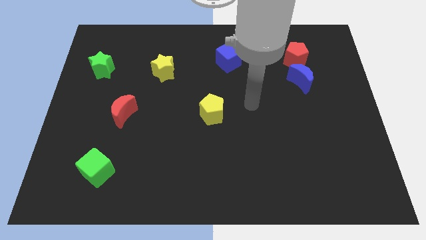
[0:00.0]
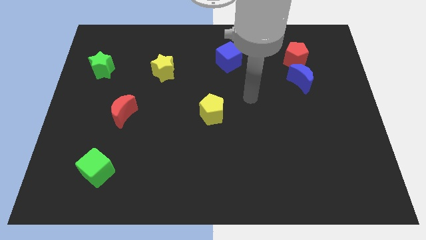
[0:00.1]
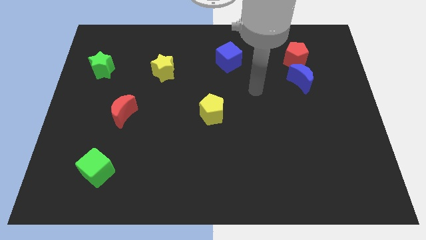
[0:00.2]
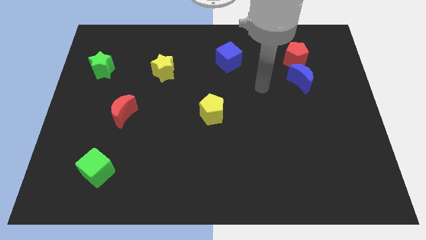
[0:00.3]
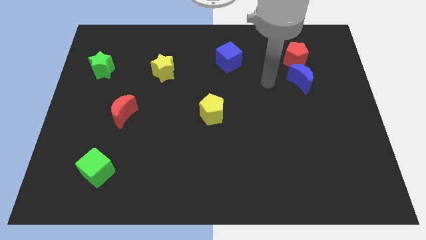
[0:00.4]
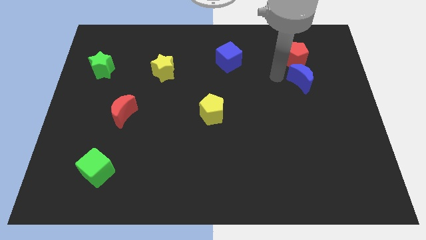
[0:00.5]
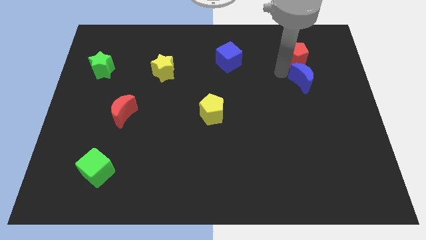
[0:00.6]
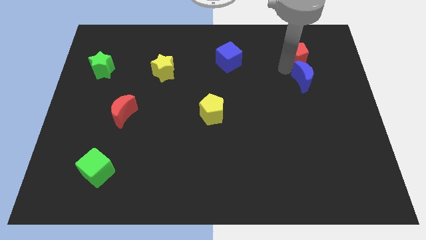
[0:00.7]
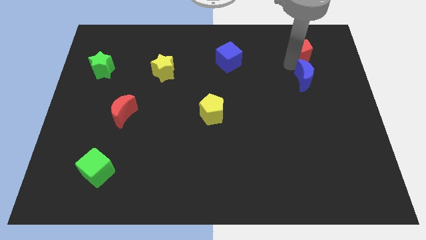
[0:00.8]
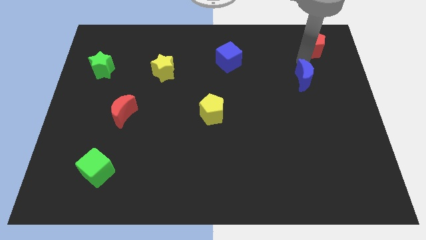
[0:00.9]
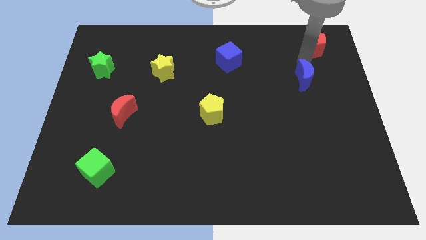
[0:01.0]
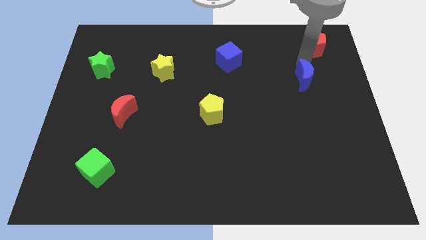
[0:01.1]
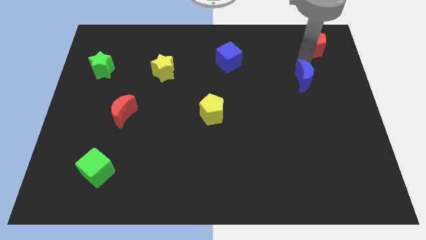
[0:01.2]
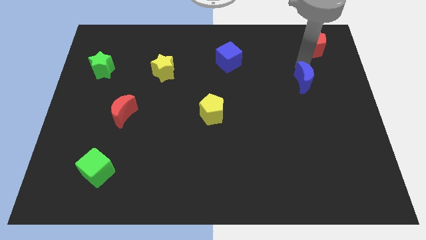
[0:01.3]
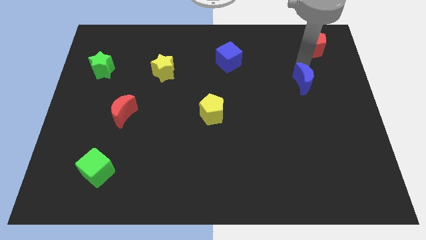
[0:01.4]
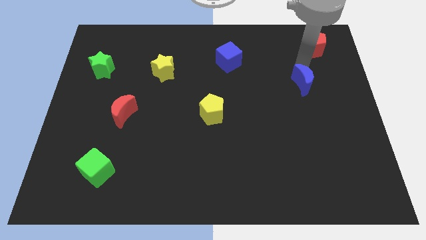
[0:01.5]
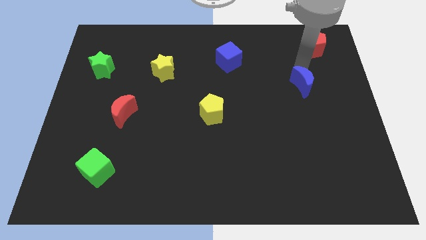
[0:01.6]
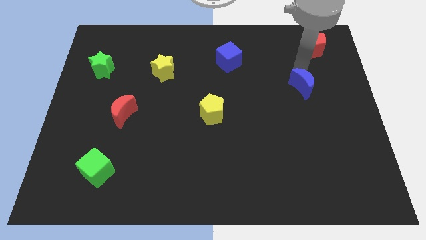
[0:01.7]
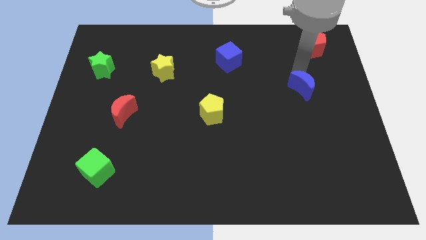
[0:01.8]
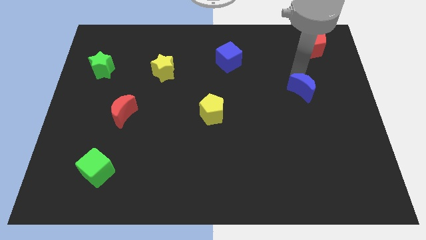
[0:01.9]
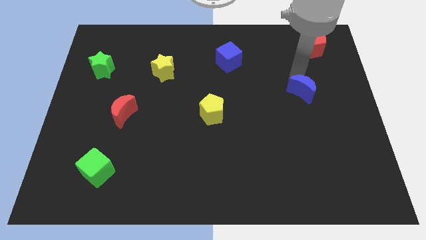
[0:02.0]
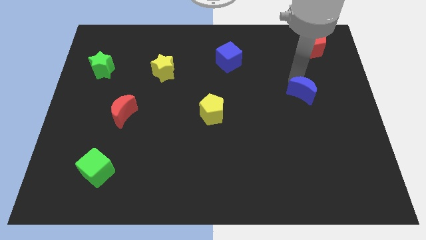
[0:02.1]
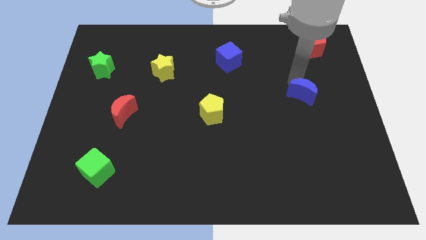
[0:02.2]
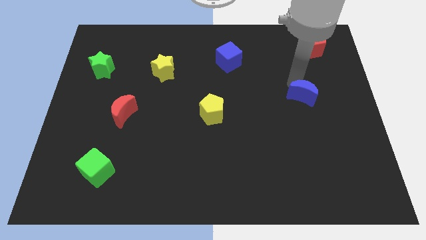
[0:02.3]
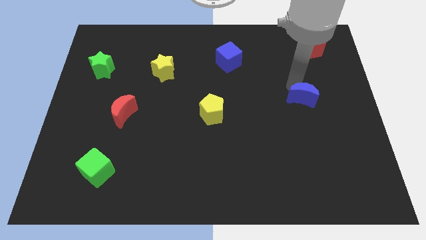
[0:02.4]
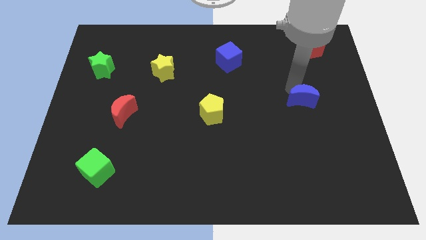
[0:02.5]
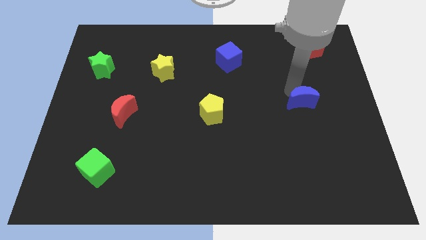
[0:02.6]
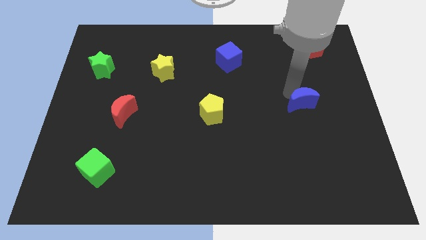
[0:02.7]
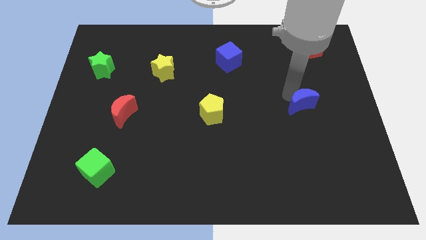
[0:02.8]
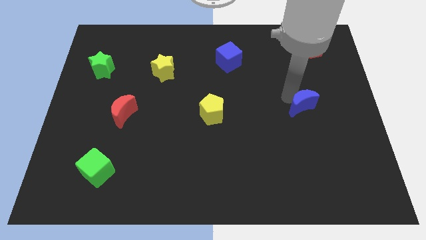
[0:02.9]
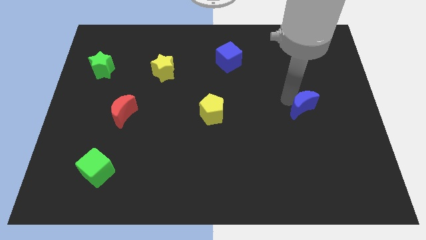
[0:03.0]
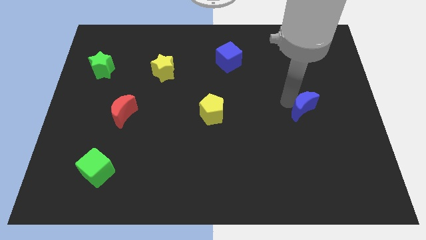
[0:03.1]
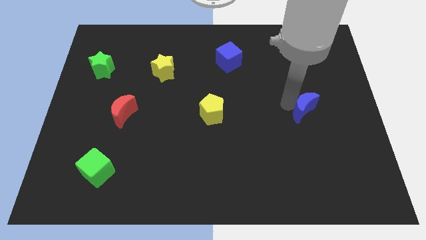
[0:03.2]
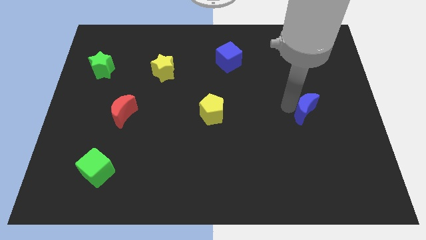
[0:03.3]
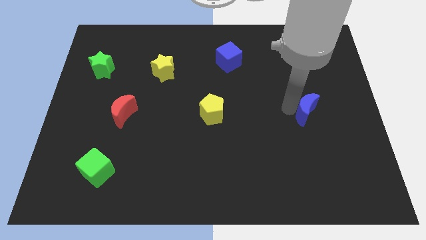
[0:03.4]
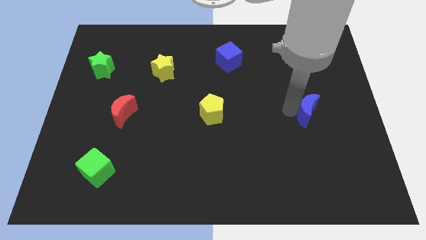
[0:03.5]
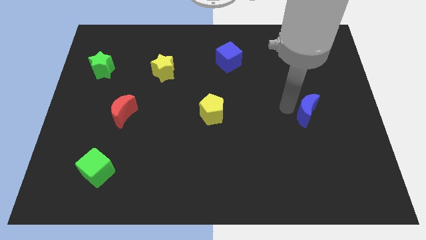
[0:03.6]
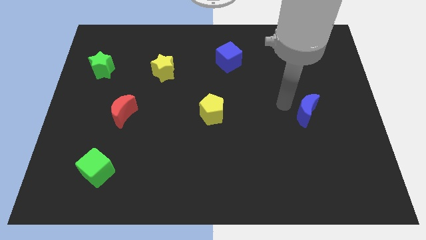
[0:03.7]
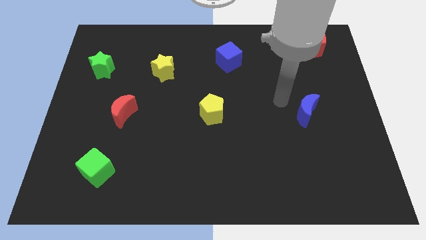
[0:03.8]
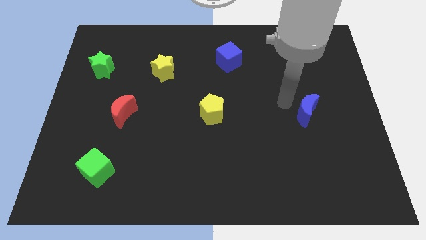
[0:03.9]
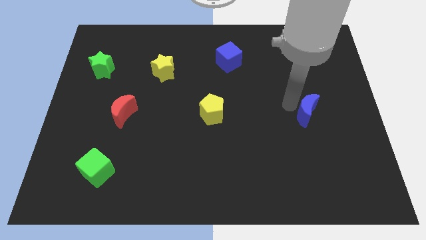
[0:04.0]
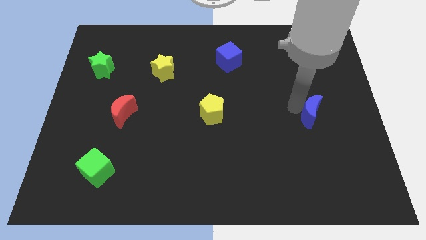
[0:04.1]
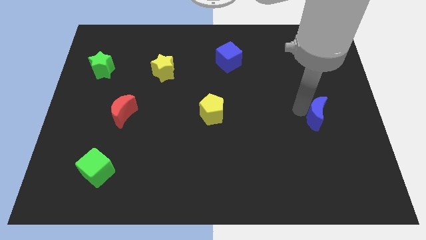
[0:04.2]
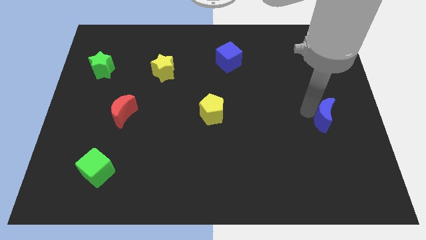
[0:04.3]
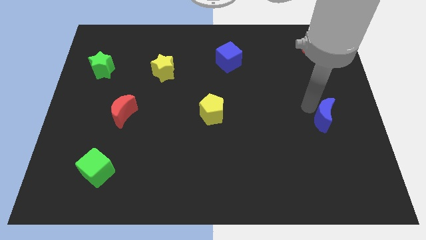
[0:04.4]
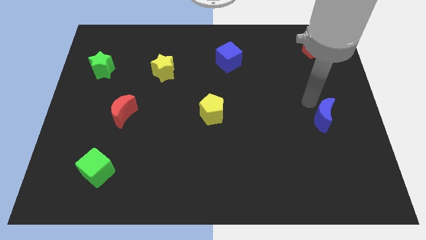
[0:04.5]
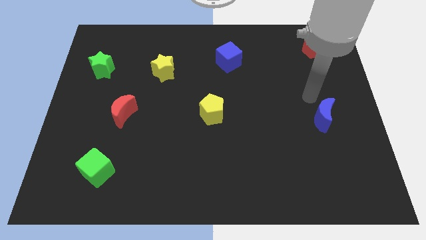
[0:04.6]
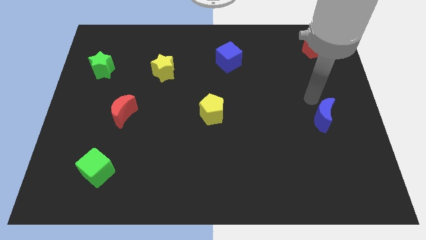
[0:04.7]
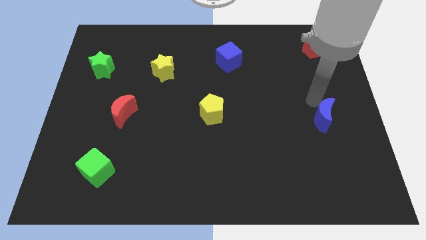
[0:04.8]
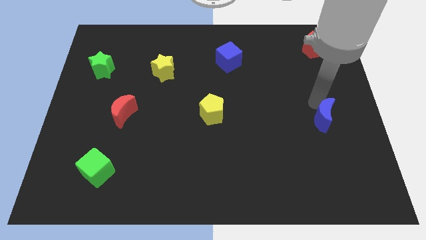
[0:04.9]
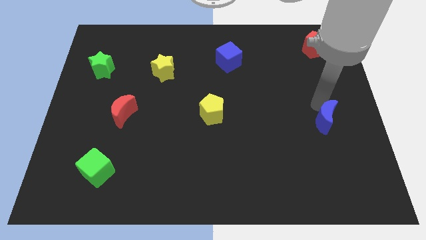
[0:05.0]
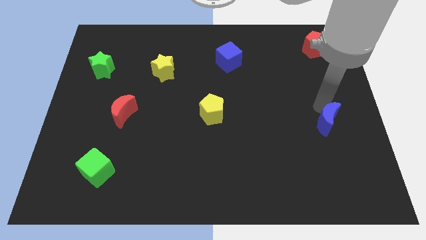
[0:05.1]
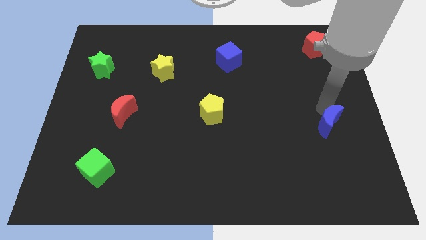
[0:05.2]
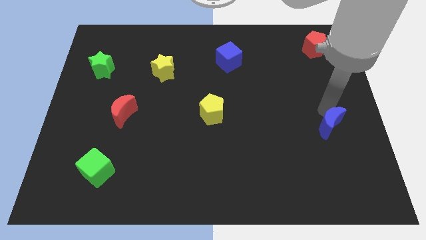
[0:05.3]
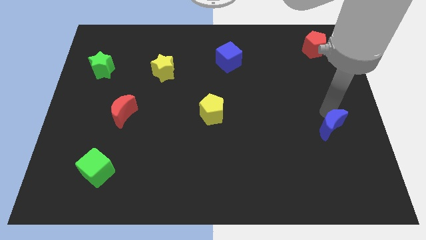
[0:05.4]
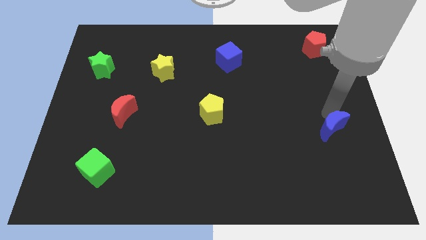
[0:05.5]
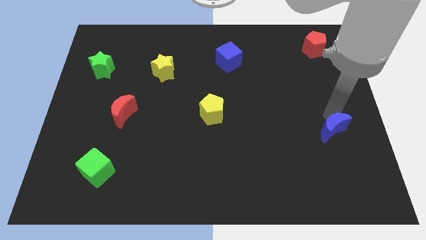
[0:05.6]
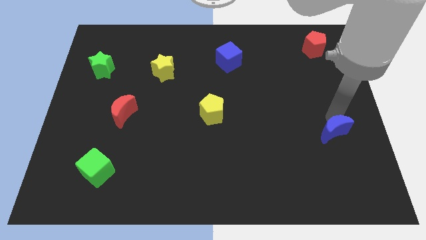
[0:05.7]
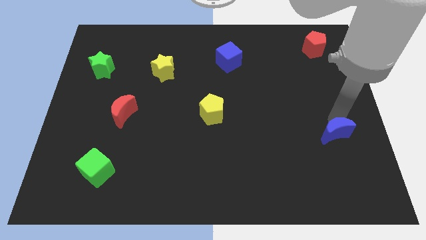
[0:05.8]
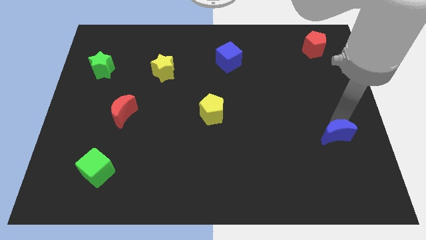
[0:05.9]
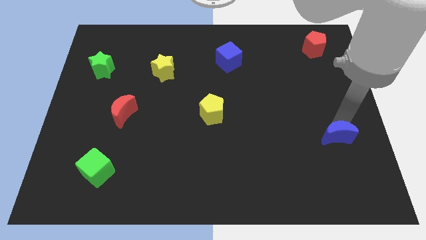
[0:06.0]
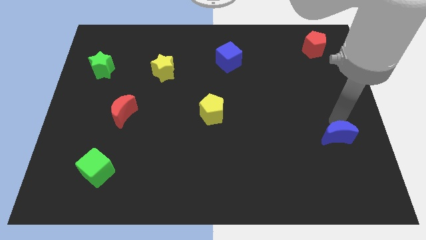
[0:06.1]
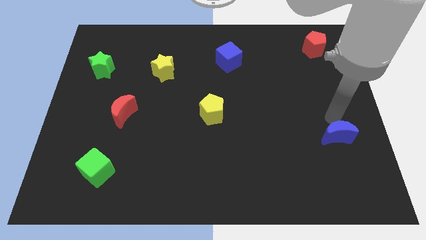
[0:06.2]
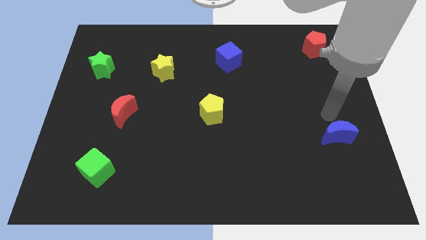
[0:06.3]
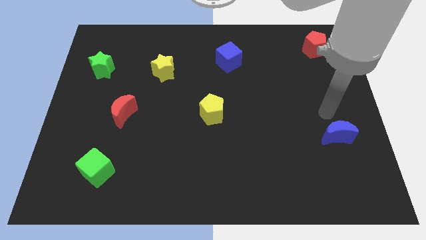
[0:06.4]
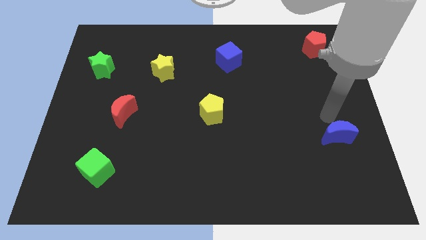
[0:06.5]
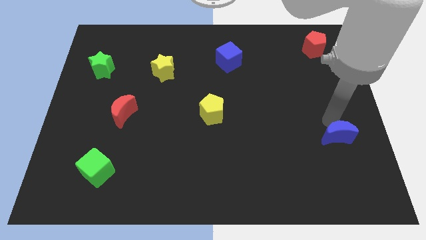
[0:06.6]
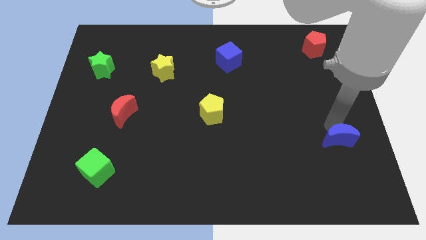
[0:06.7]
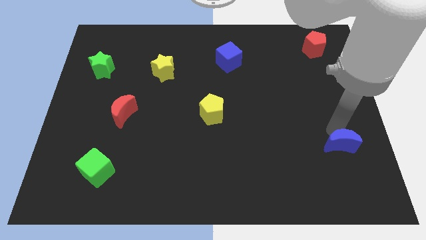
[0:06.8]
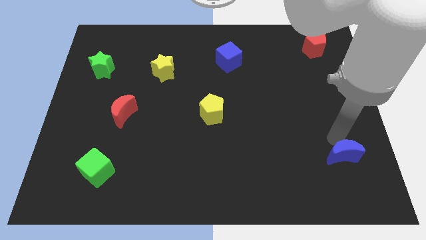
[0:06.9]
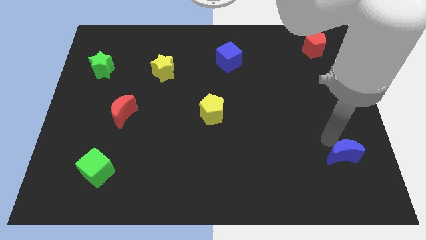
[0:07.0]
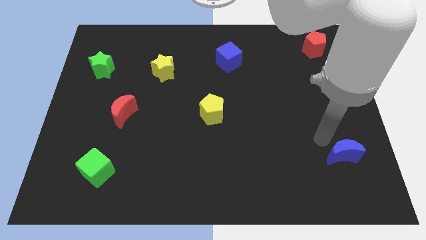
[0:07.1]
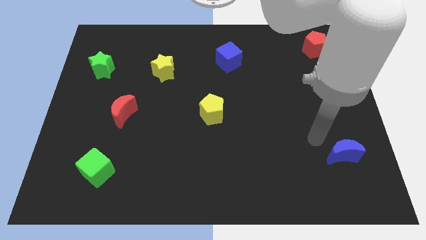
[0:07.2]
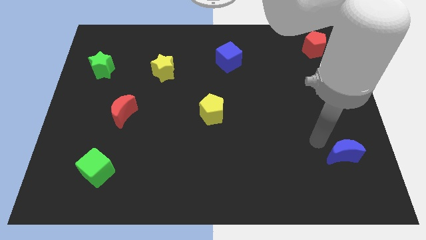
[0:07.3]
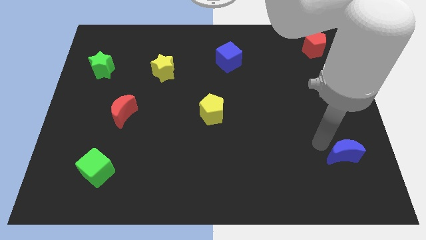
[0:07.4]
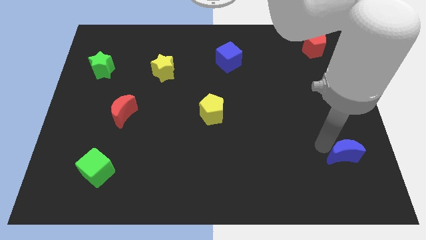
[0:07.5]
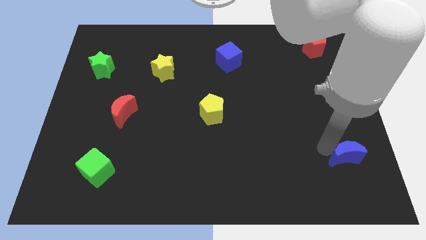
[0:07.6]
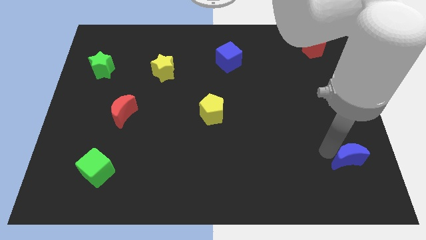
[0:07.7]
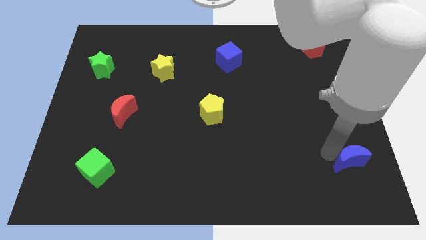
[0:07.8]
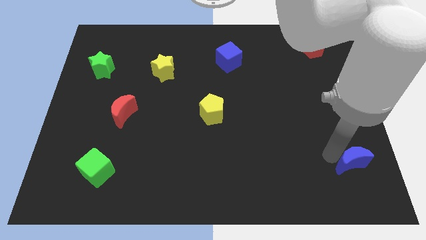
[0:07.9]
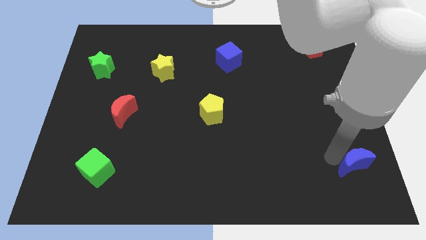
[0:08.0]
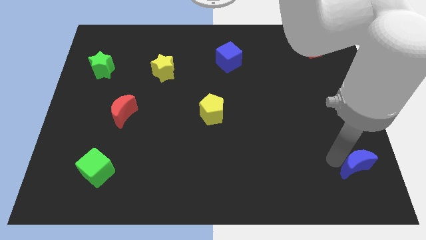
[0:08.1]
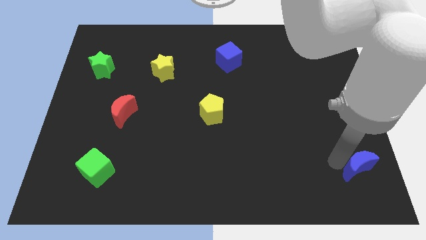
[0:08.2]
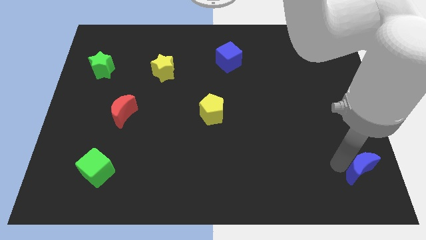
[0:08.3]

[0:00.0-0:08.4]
put the blue moon to the bottom right
